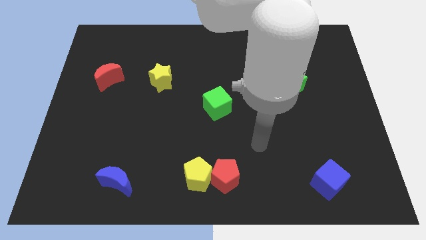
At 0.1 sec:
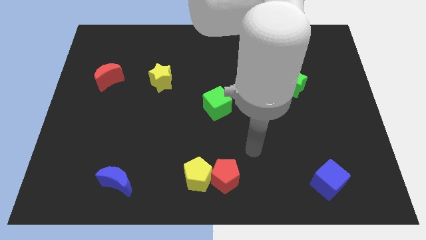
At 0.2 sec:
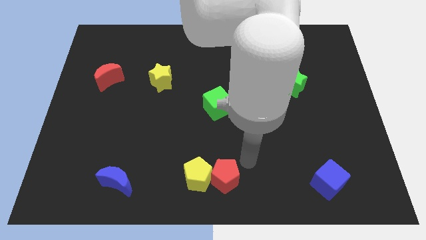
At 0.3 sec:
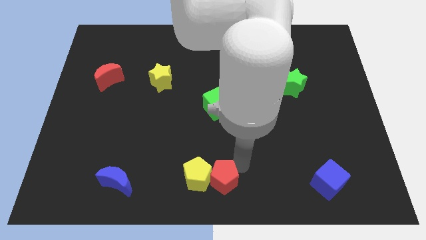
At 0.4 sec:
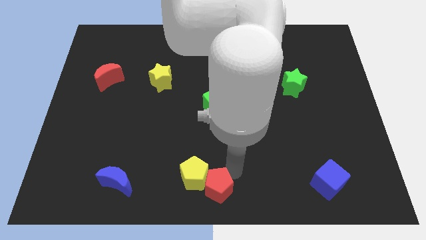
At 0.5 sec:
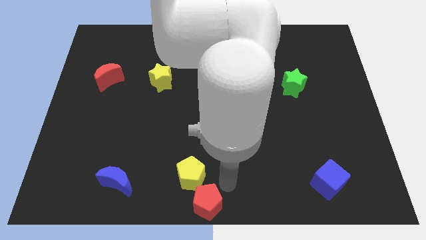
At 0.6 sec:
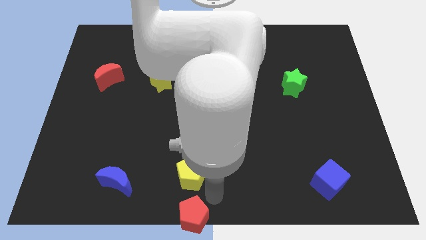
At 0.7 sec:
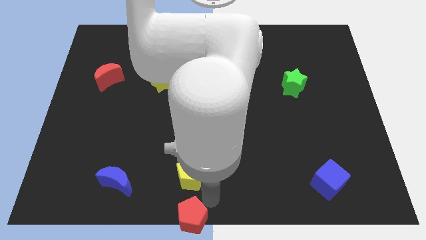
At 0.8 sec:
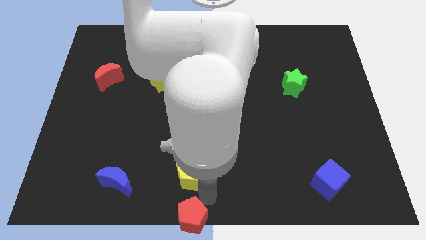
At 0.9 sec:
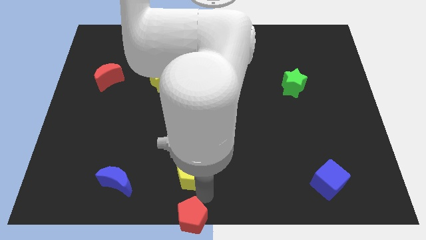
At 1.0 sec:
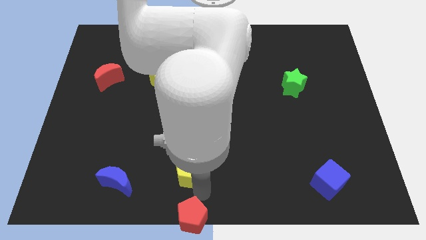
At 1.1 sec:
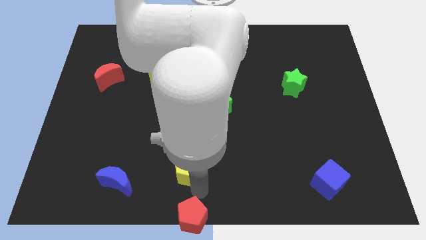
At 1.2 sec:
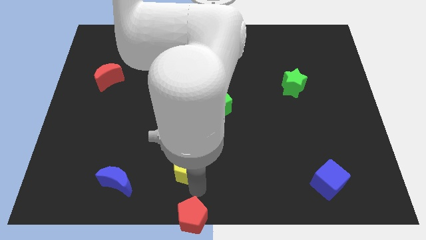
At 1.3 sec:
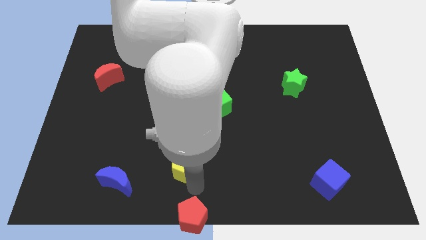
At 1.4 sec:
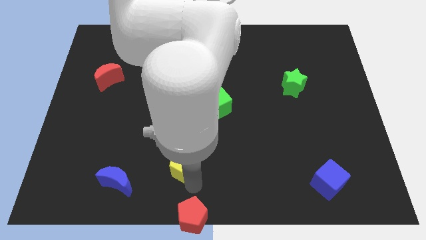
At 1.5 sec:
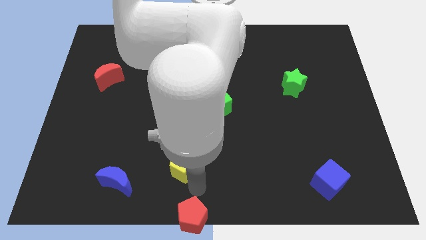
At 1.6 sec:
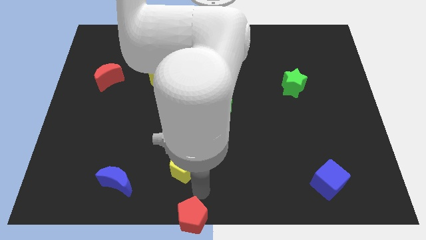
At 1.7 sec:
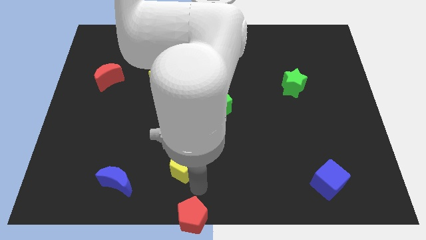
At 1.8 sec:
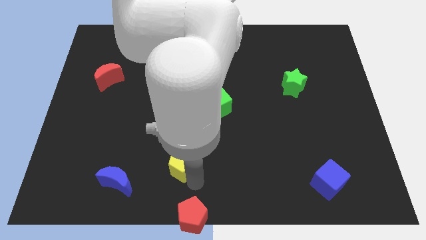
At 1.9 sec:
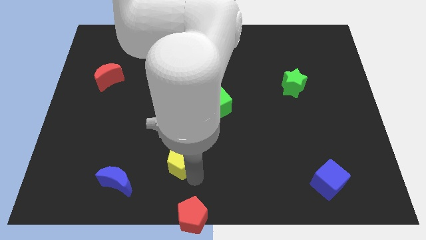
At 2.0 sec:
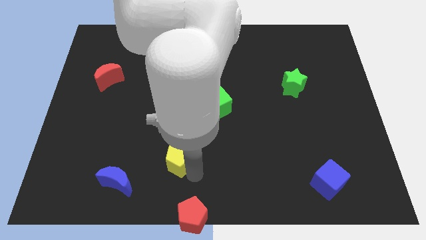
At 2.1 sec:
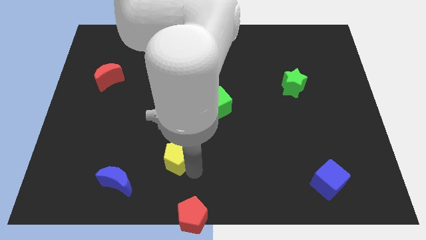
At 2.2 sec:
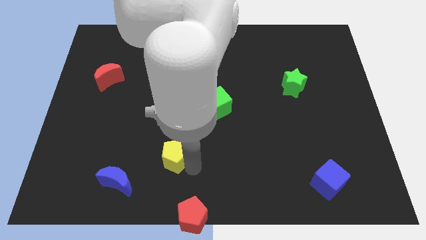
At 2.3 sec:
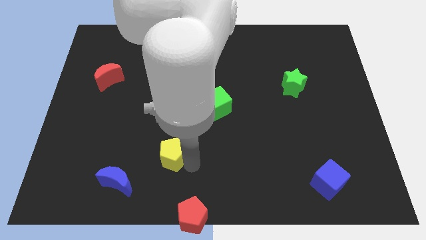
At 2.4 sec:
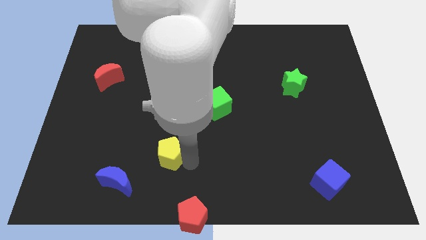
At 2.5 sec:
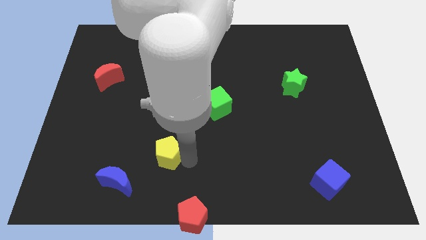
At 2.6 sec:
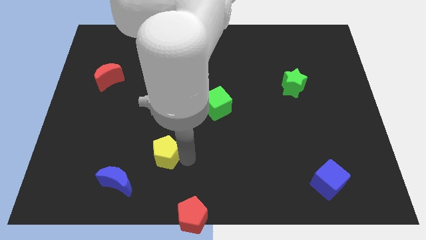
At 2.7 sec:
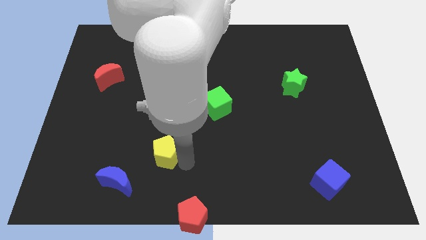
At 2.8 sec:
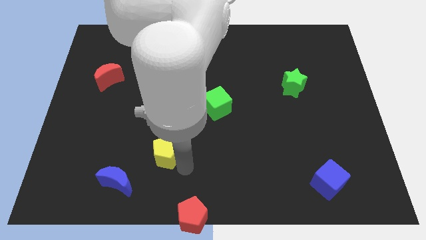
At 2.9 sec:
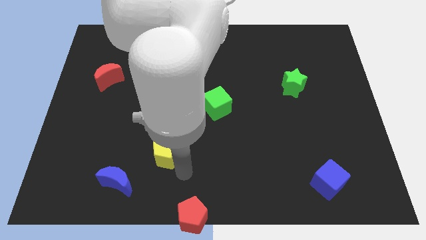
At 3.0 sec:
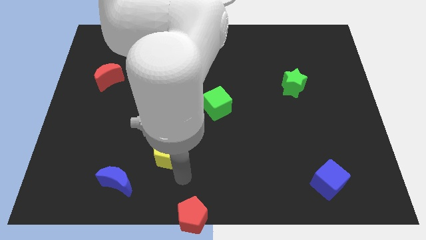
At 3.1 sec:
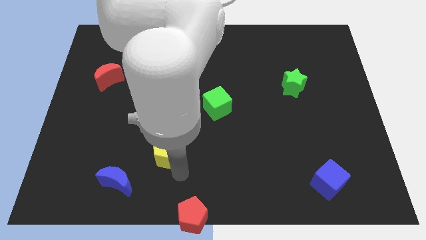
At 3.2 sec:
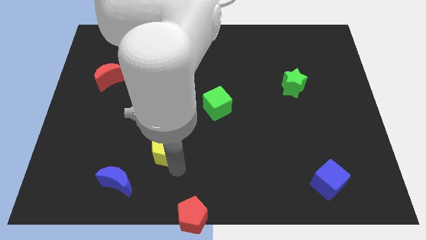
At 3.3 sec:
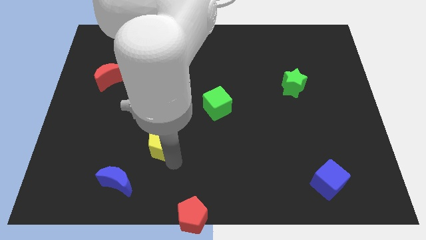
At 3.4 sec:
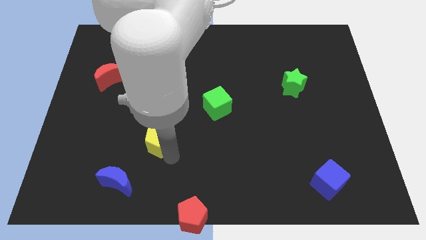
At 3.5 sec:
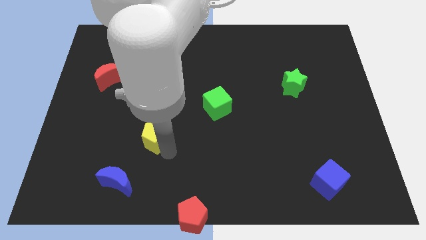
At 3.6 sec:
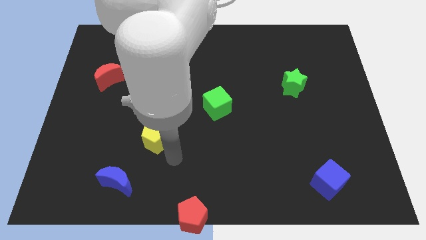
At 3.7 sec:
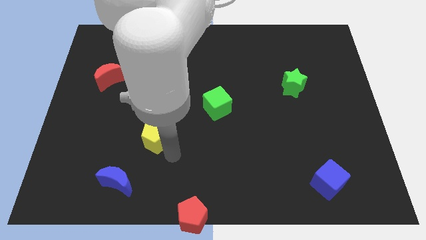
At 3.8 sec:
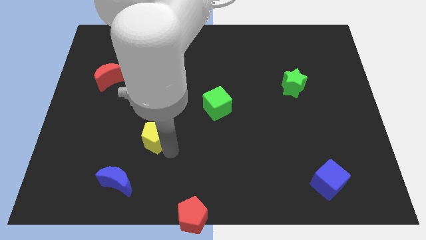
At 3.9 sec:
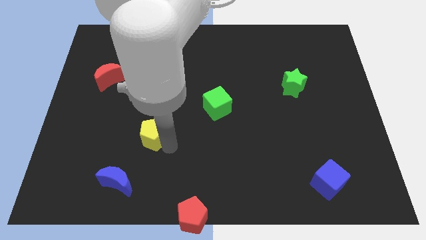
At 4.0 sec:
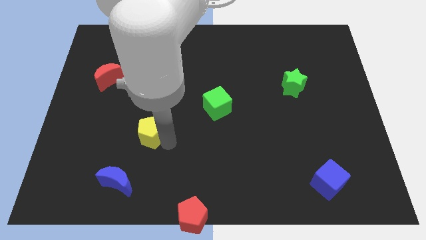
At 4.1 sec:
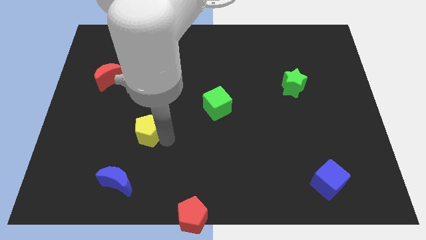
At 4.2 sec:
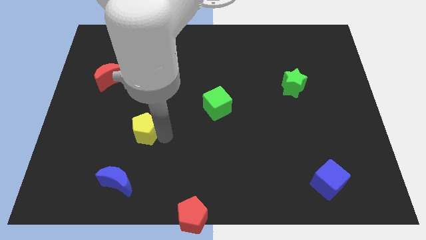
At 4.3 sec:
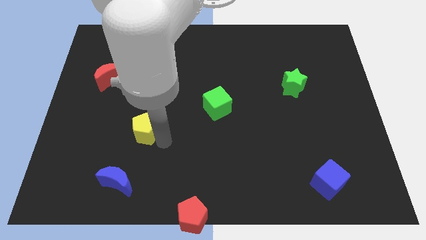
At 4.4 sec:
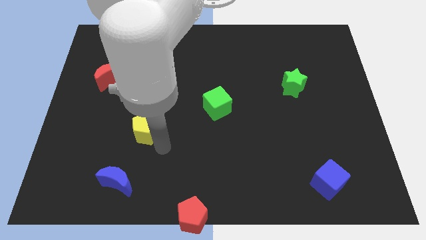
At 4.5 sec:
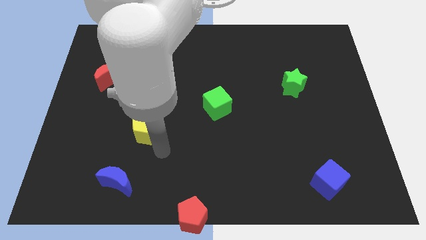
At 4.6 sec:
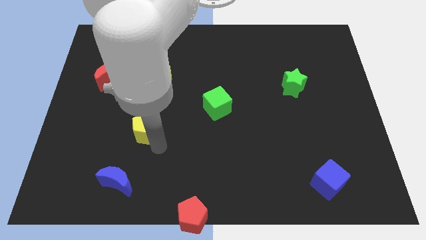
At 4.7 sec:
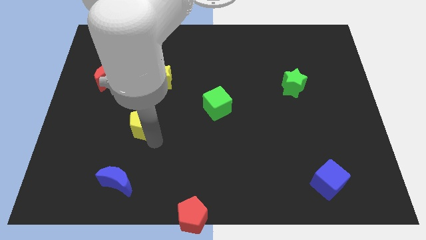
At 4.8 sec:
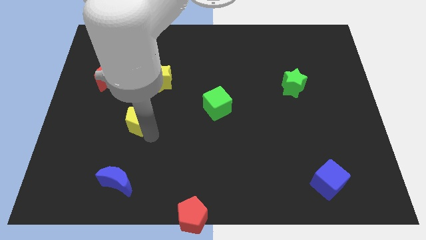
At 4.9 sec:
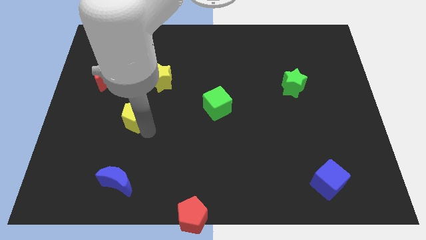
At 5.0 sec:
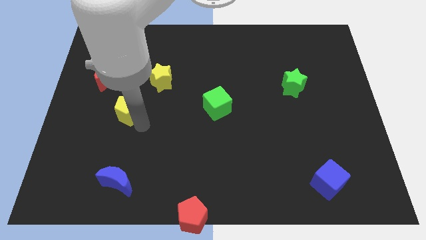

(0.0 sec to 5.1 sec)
push the yellow pentagon diagonally down and to the right of the red moon

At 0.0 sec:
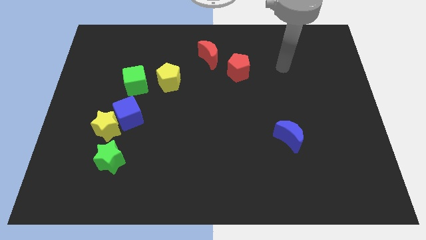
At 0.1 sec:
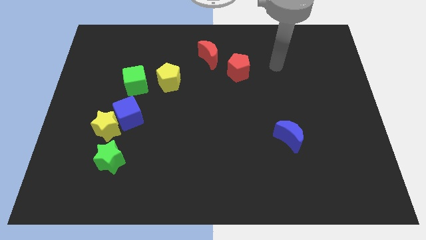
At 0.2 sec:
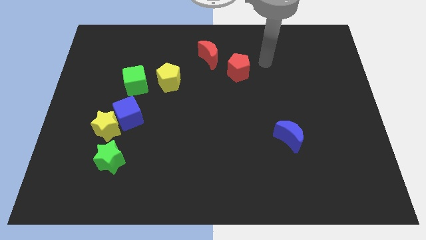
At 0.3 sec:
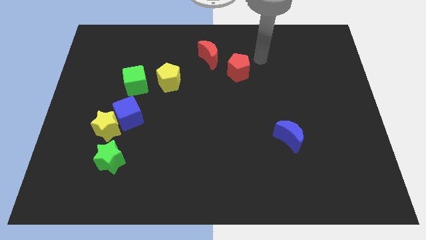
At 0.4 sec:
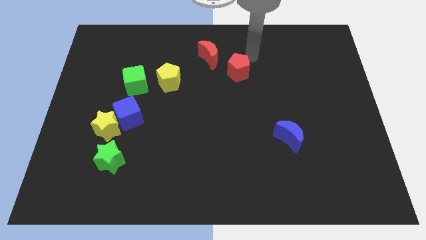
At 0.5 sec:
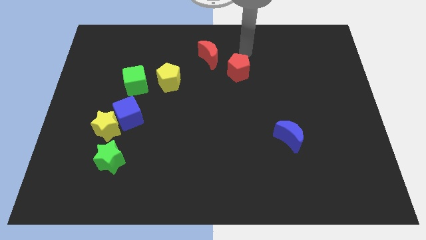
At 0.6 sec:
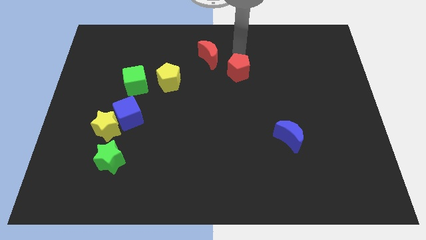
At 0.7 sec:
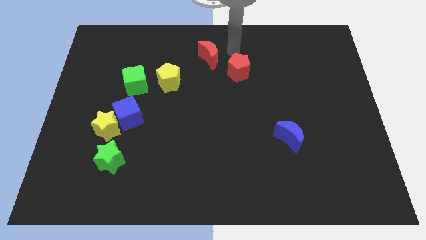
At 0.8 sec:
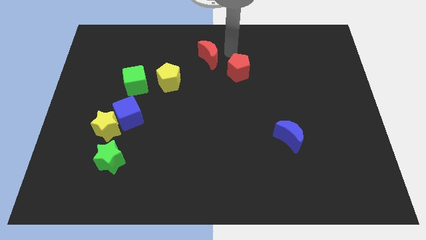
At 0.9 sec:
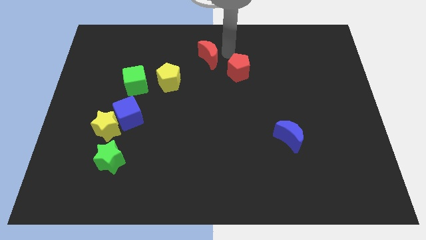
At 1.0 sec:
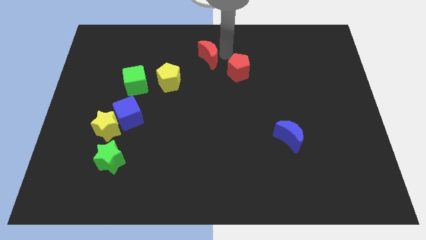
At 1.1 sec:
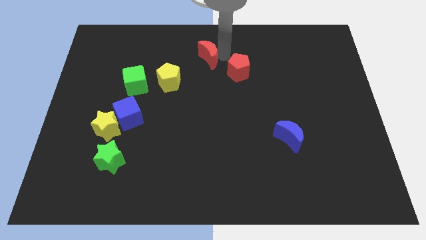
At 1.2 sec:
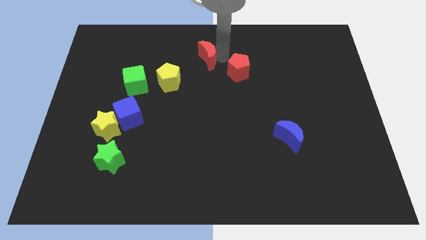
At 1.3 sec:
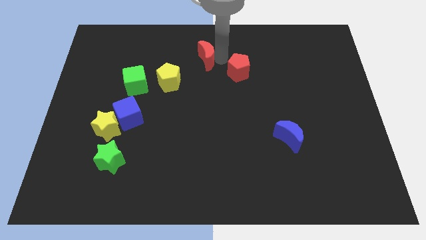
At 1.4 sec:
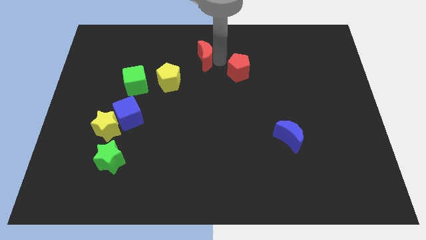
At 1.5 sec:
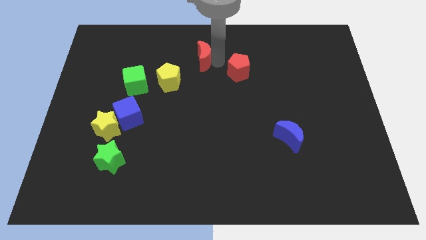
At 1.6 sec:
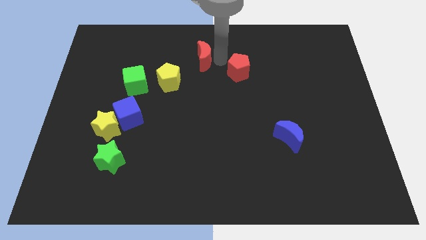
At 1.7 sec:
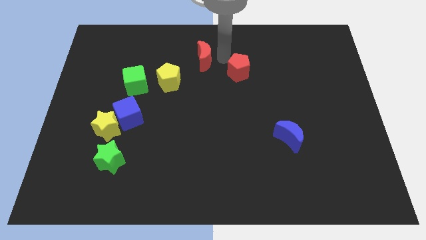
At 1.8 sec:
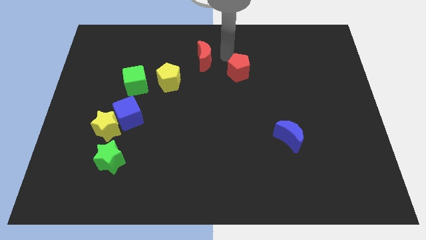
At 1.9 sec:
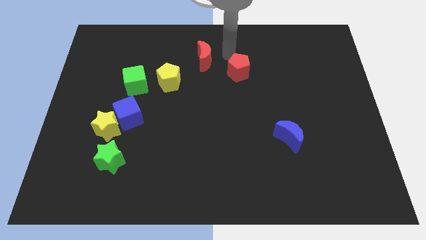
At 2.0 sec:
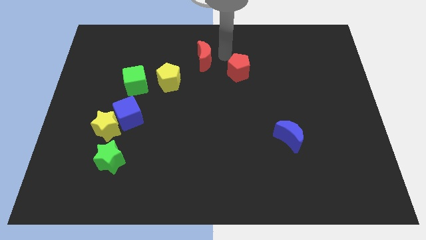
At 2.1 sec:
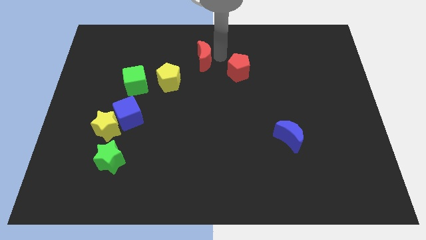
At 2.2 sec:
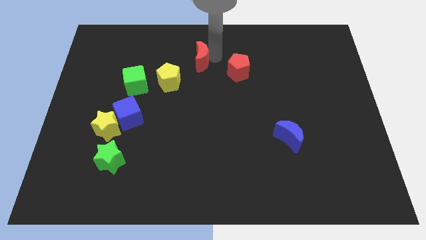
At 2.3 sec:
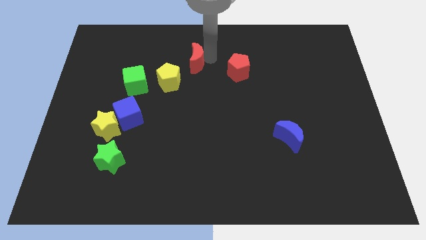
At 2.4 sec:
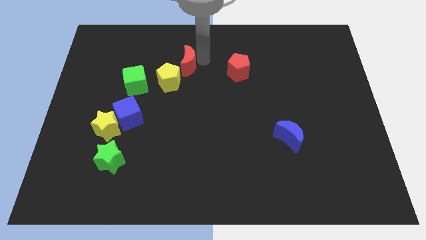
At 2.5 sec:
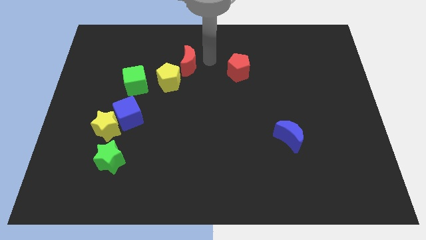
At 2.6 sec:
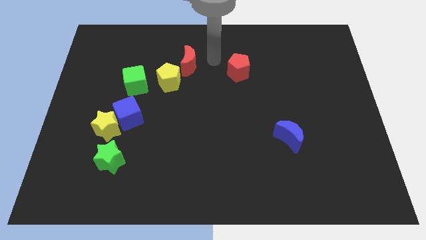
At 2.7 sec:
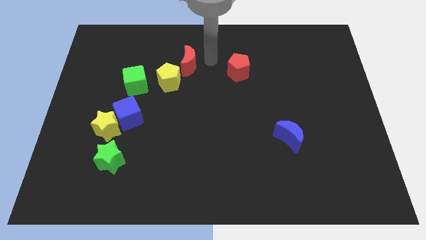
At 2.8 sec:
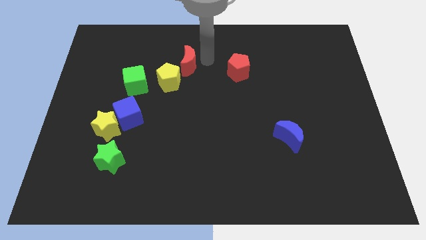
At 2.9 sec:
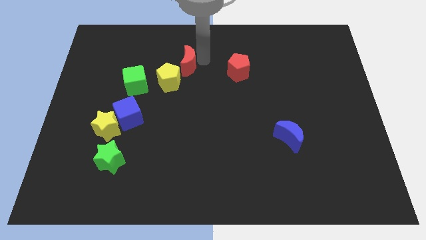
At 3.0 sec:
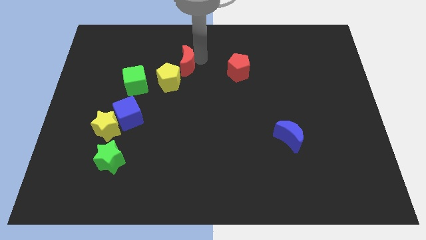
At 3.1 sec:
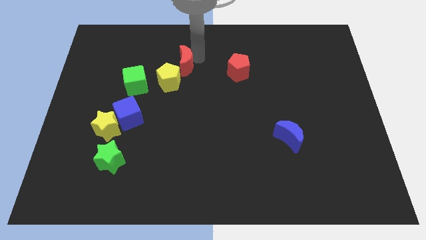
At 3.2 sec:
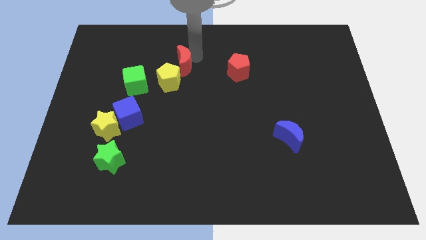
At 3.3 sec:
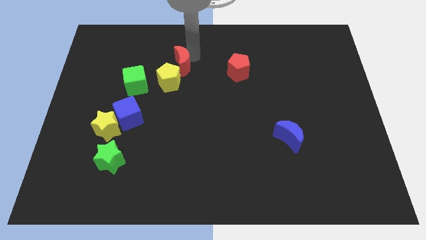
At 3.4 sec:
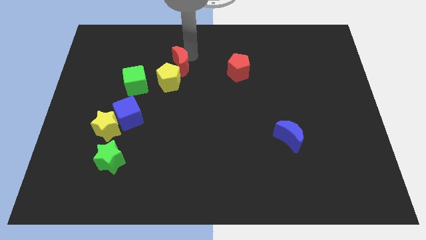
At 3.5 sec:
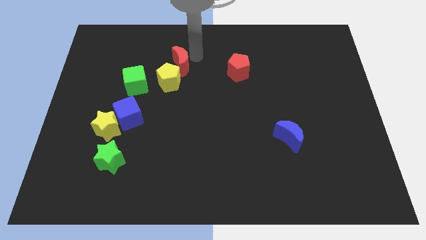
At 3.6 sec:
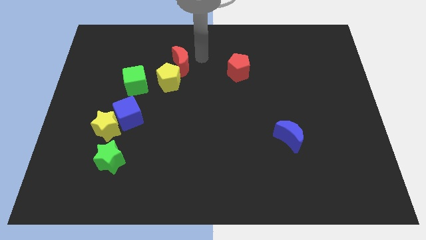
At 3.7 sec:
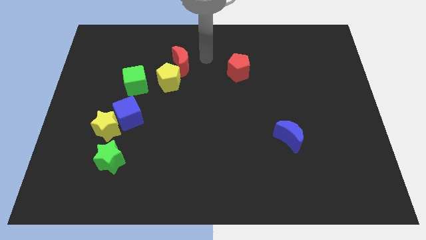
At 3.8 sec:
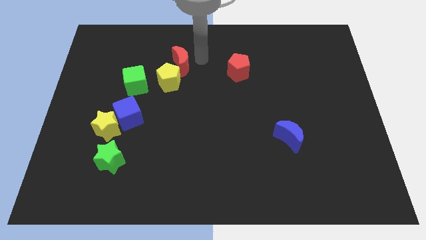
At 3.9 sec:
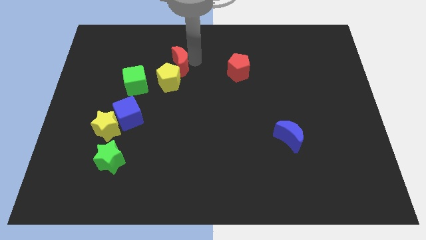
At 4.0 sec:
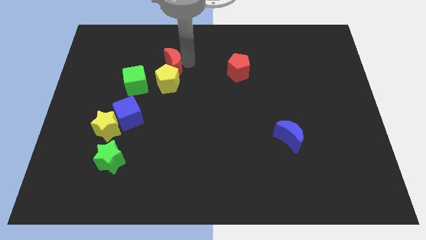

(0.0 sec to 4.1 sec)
push the red moon diagonally up and to the right of the green cube
